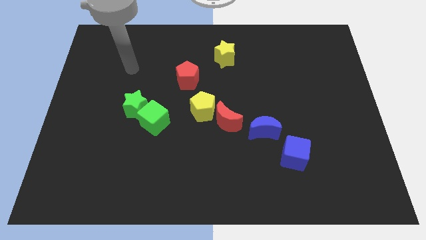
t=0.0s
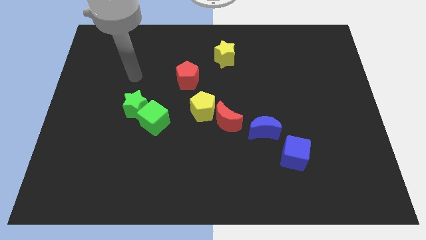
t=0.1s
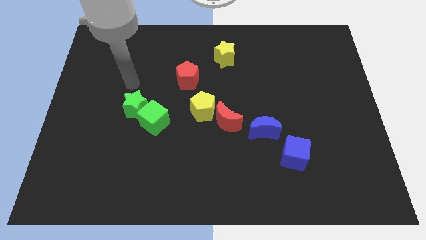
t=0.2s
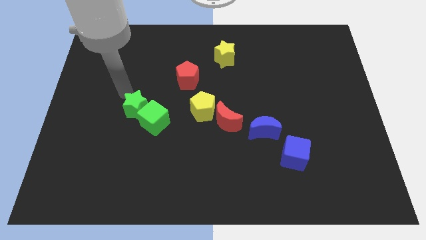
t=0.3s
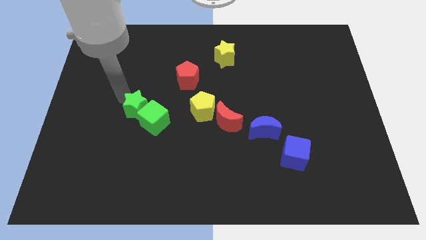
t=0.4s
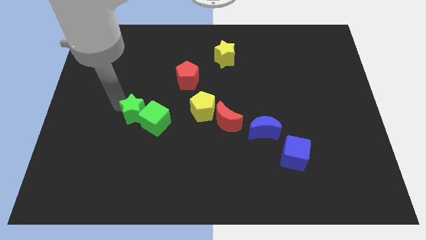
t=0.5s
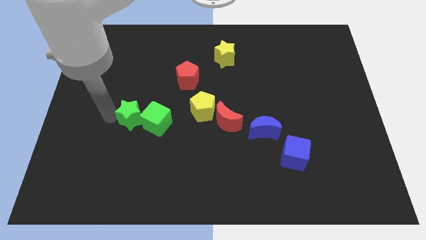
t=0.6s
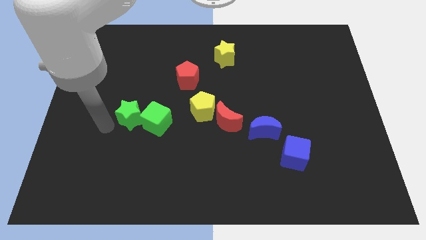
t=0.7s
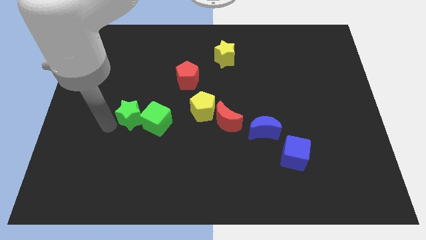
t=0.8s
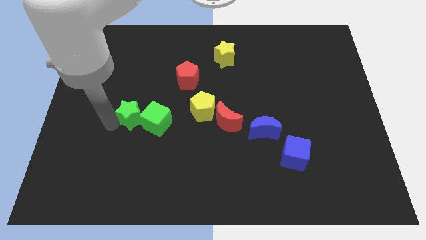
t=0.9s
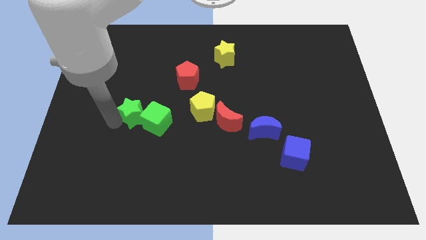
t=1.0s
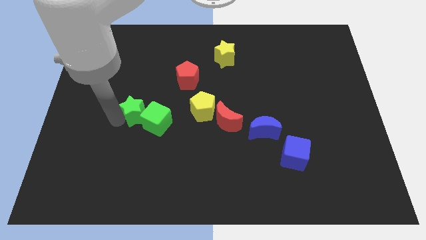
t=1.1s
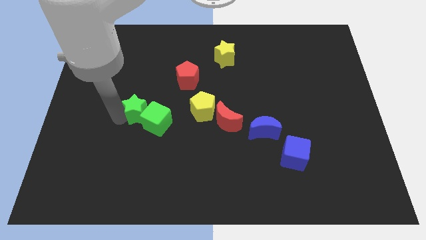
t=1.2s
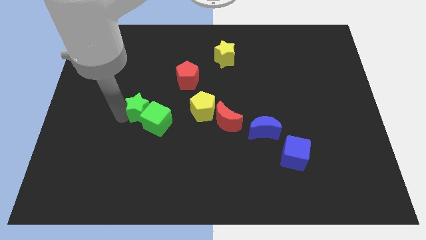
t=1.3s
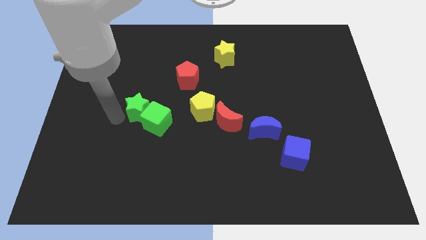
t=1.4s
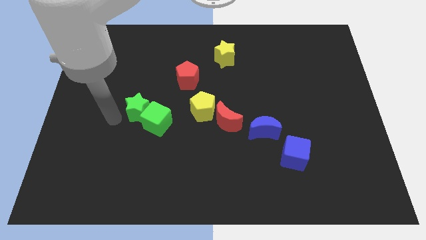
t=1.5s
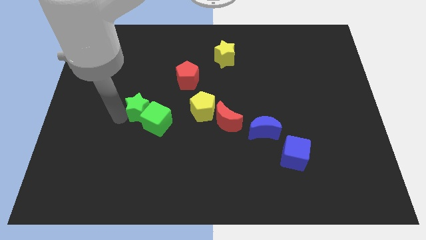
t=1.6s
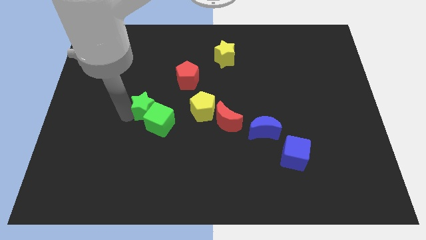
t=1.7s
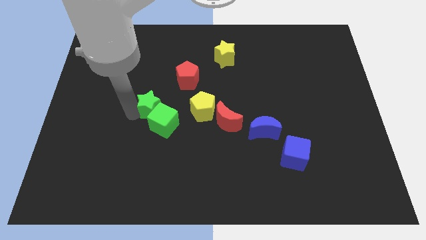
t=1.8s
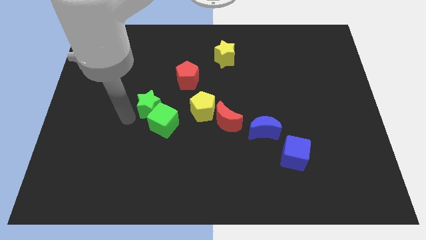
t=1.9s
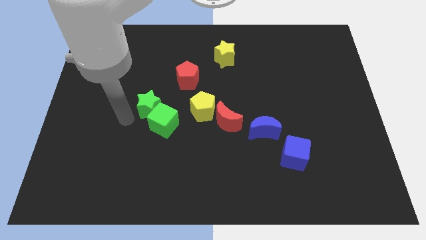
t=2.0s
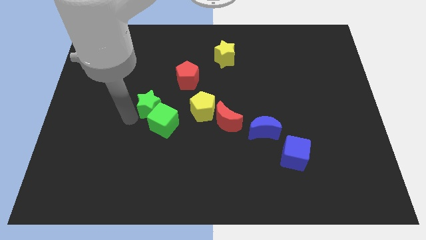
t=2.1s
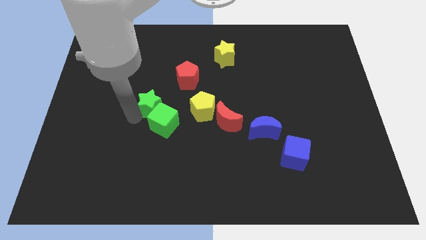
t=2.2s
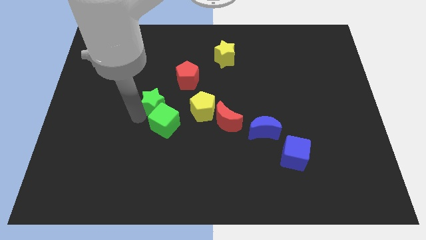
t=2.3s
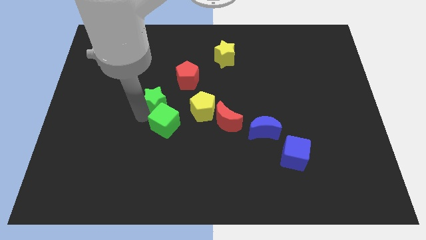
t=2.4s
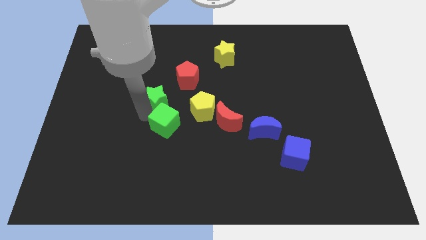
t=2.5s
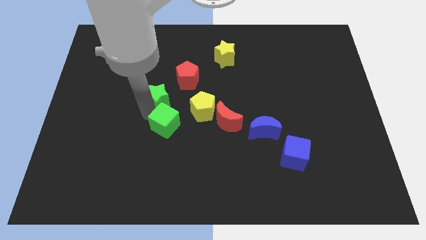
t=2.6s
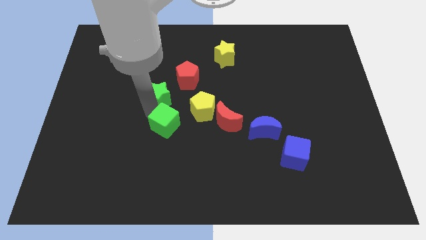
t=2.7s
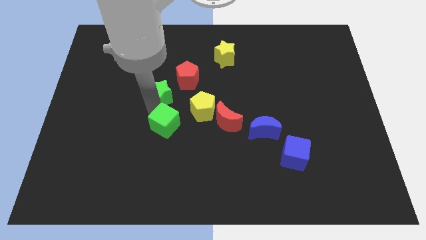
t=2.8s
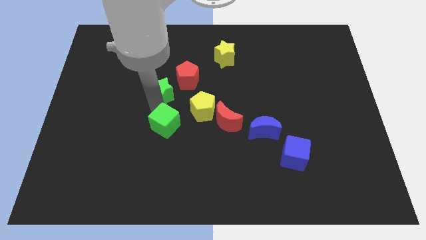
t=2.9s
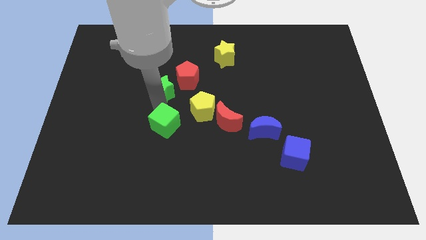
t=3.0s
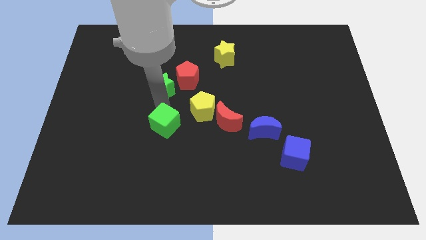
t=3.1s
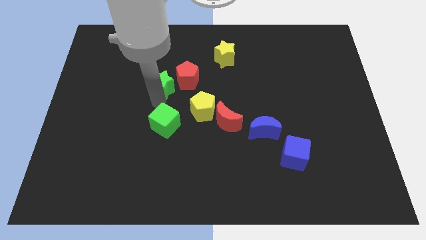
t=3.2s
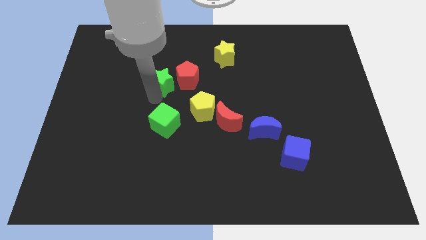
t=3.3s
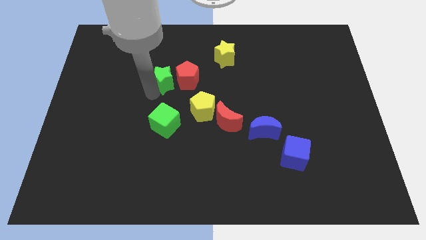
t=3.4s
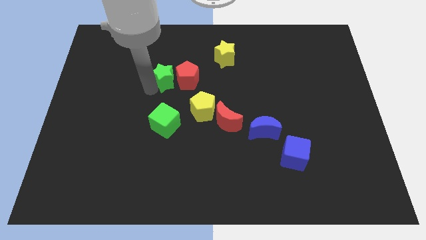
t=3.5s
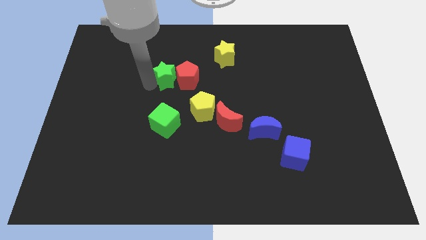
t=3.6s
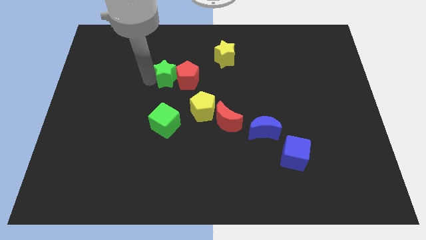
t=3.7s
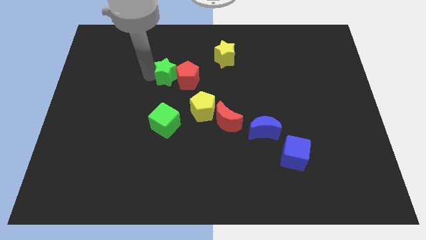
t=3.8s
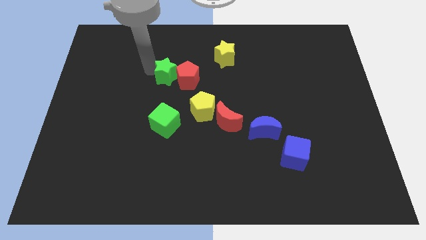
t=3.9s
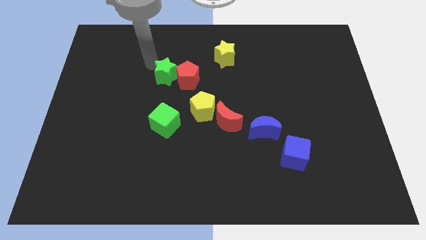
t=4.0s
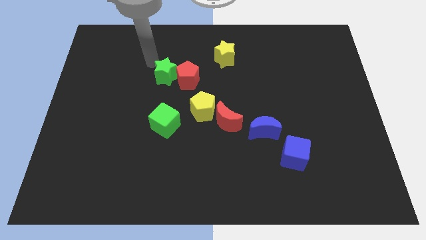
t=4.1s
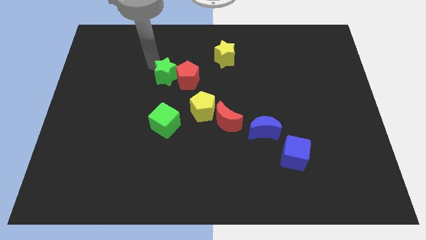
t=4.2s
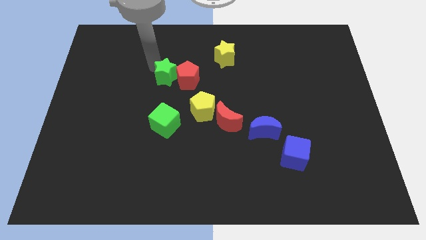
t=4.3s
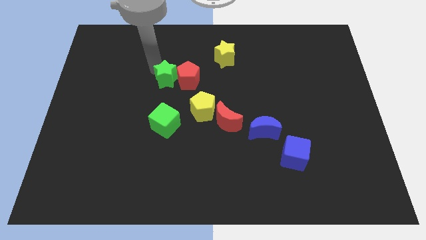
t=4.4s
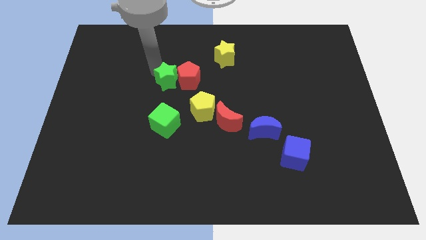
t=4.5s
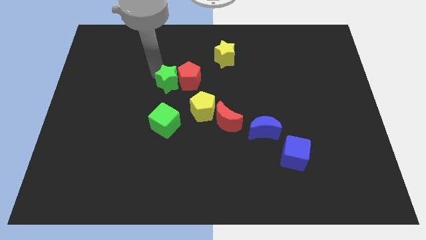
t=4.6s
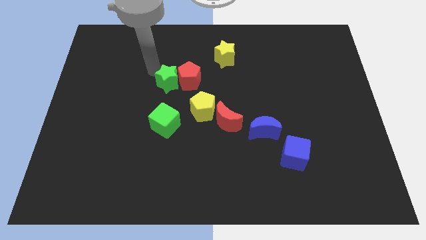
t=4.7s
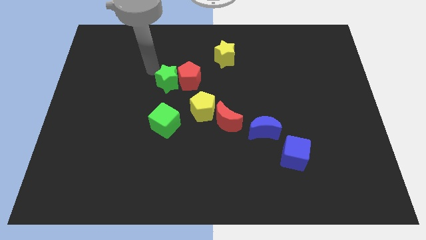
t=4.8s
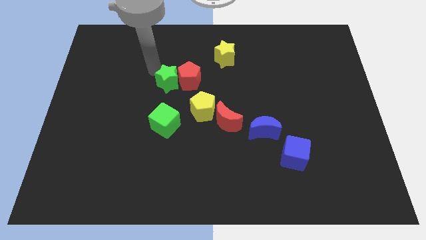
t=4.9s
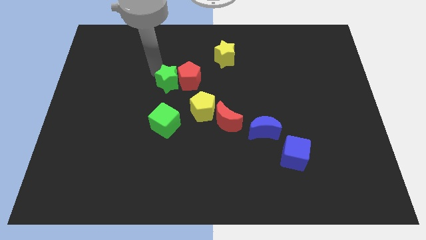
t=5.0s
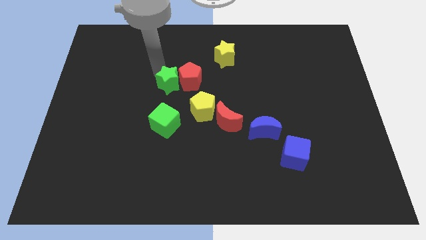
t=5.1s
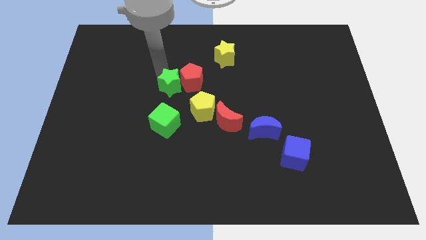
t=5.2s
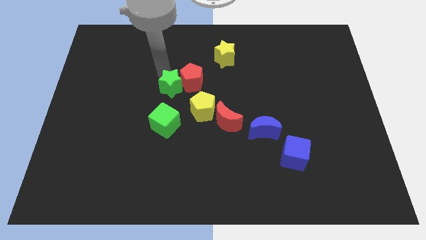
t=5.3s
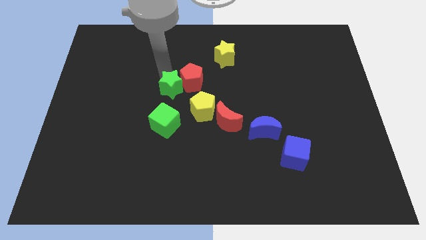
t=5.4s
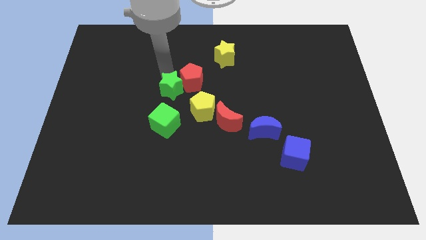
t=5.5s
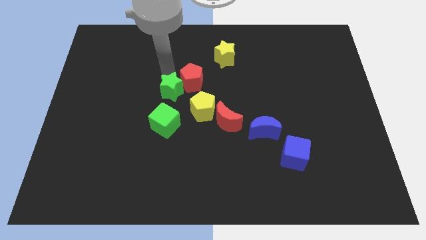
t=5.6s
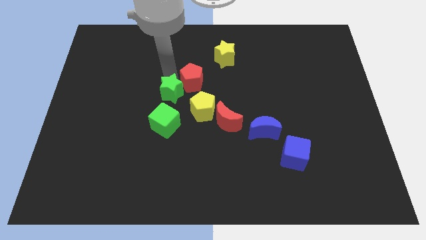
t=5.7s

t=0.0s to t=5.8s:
slide the green star a little to the right

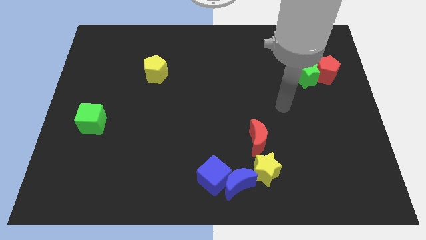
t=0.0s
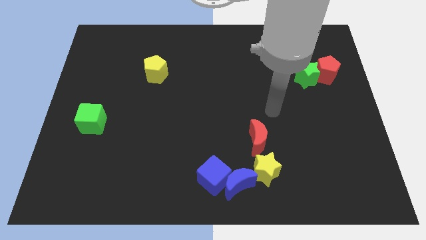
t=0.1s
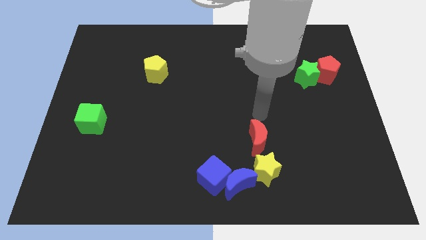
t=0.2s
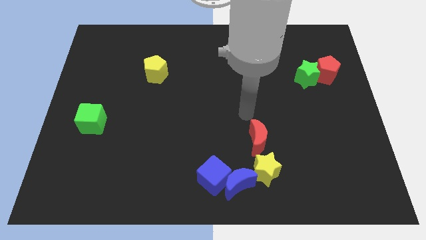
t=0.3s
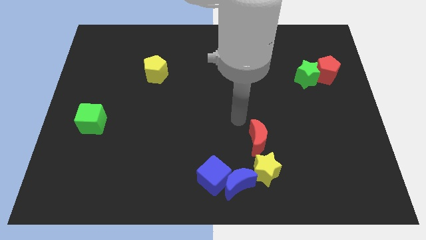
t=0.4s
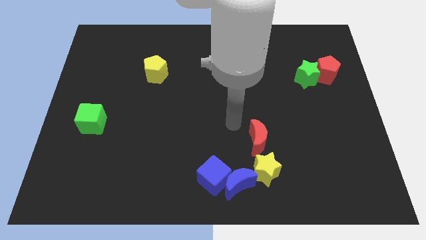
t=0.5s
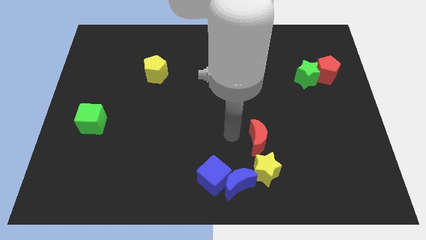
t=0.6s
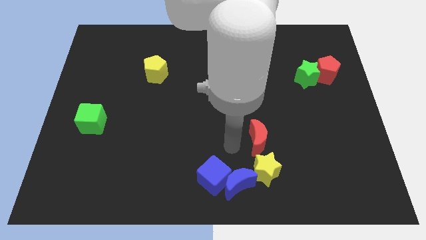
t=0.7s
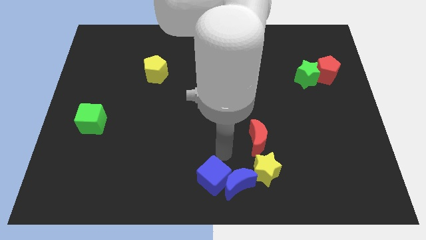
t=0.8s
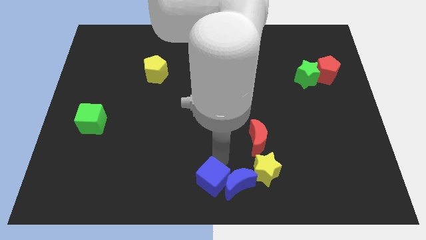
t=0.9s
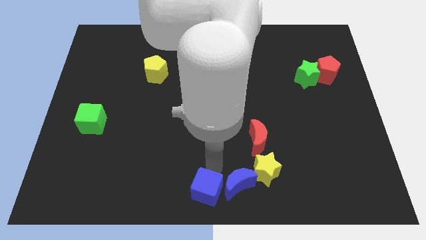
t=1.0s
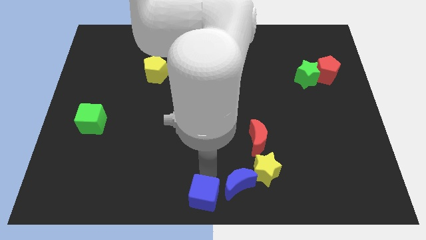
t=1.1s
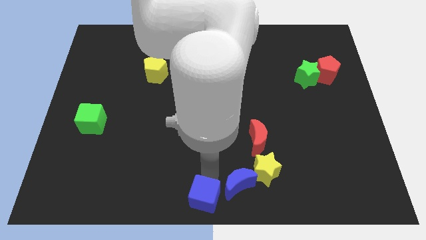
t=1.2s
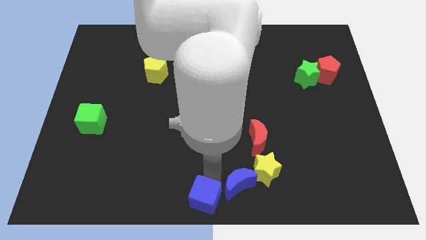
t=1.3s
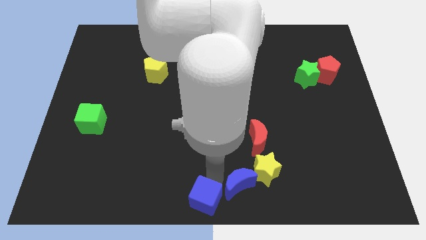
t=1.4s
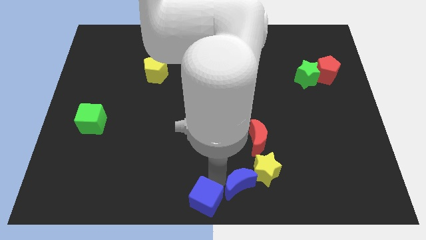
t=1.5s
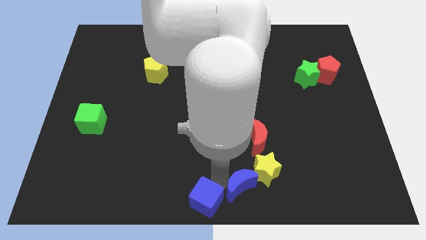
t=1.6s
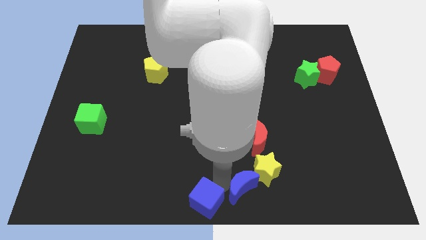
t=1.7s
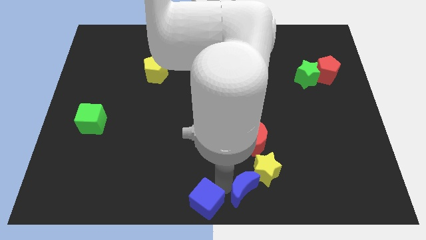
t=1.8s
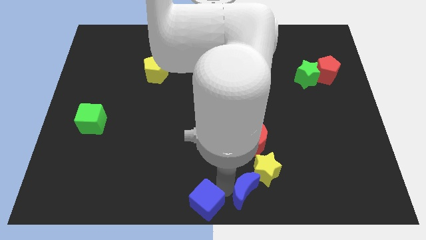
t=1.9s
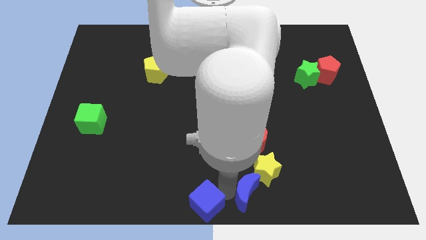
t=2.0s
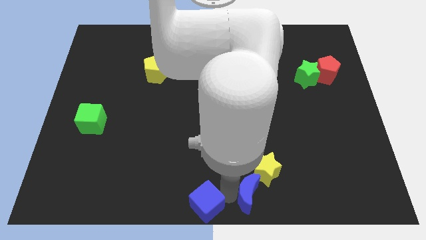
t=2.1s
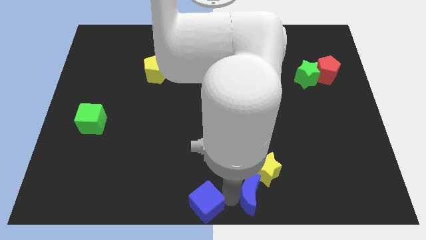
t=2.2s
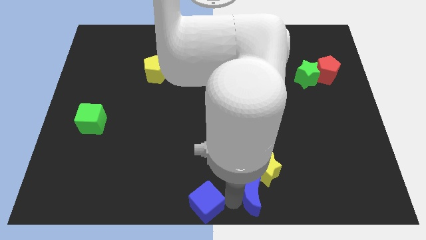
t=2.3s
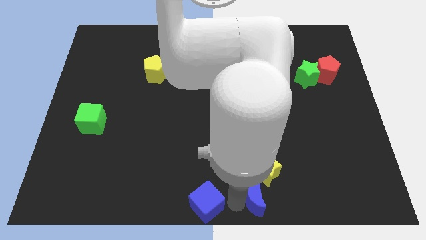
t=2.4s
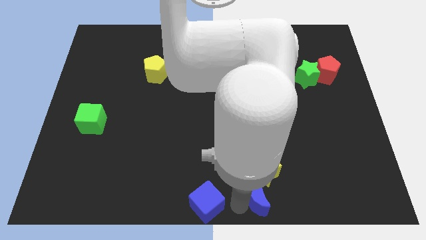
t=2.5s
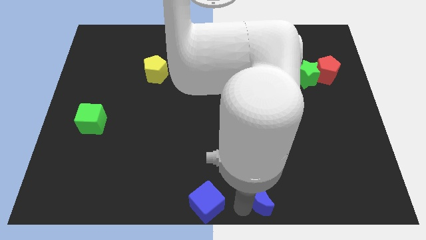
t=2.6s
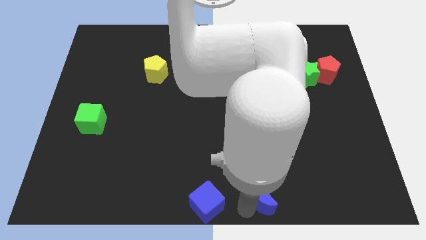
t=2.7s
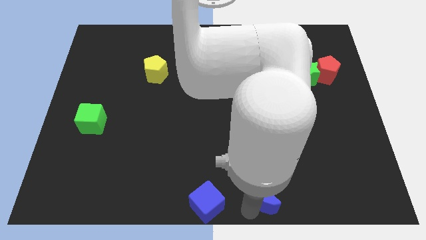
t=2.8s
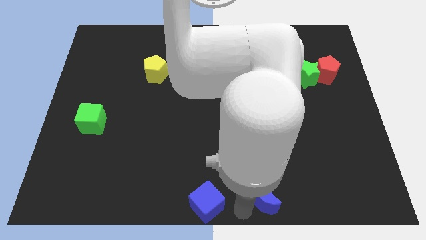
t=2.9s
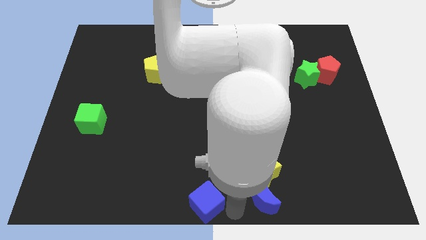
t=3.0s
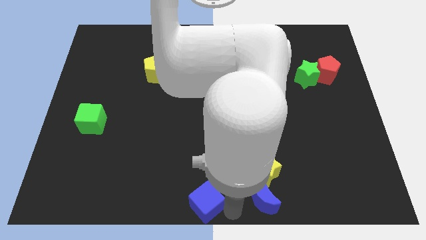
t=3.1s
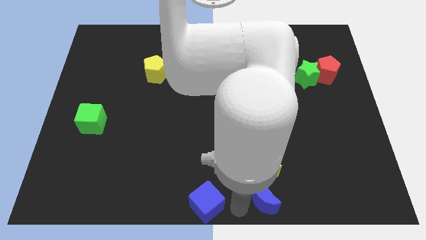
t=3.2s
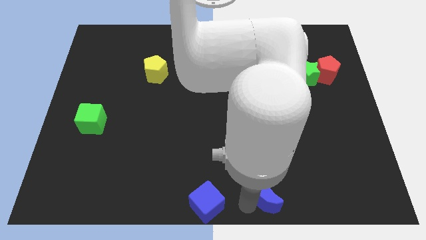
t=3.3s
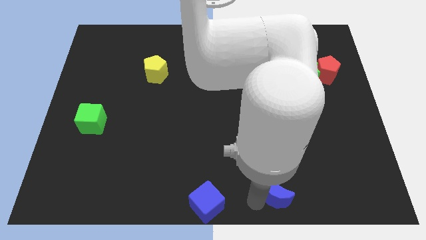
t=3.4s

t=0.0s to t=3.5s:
slightly slide the blue moon to the right
